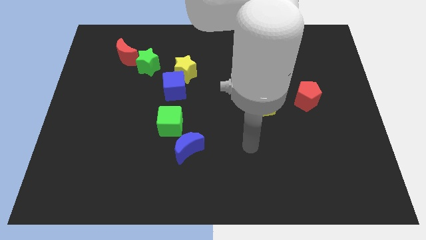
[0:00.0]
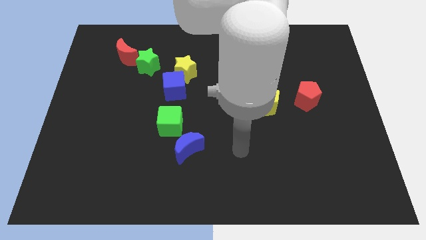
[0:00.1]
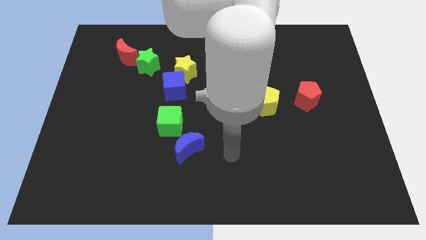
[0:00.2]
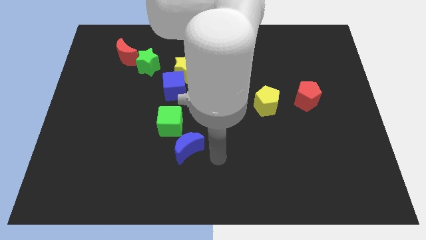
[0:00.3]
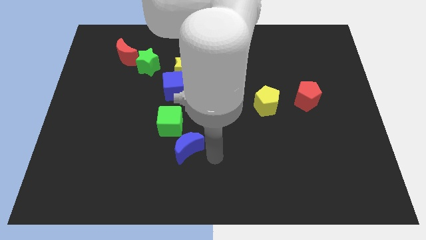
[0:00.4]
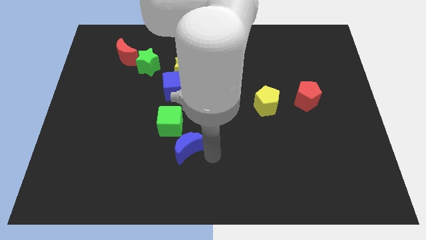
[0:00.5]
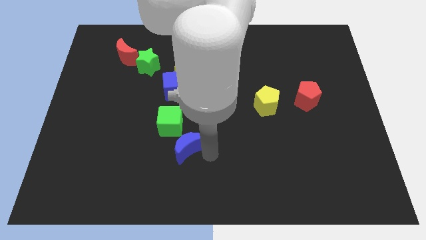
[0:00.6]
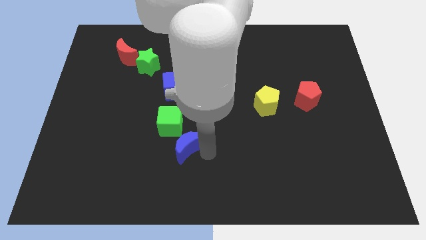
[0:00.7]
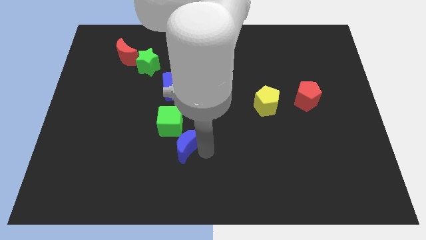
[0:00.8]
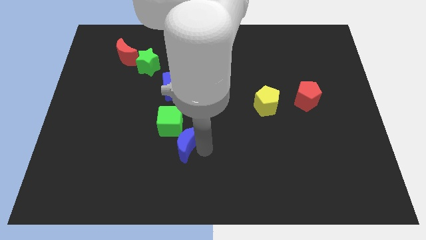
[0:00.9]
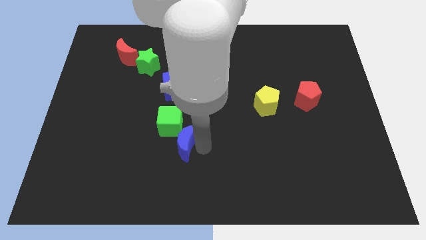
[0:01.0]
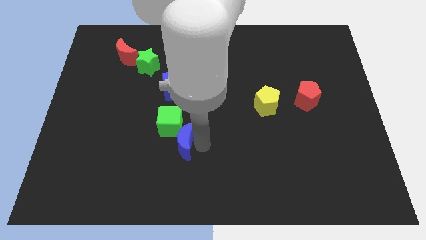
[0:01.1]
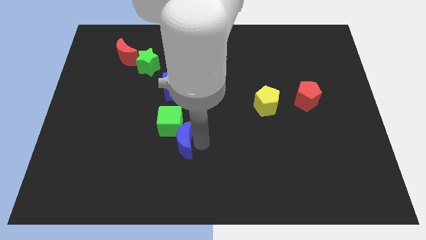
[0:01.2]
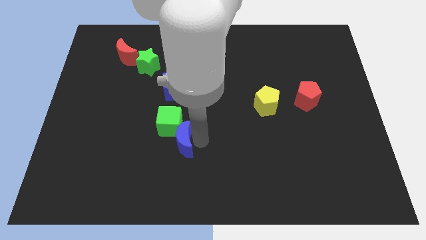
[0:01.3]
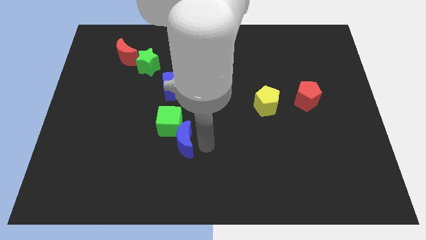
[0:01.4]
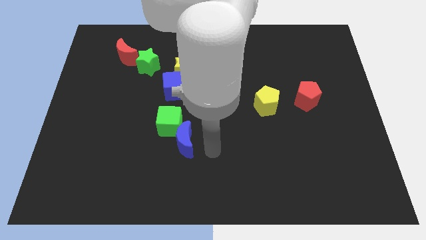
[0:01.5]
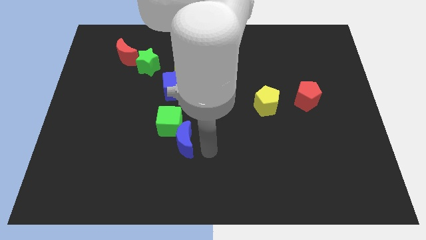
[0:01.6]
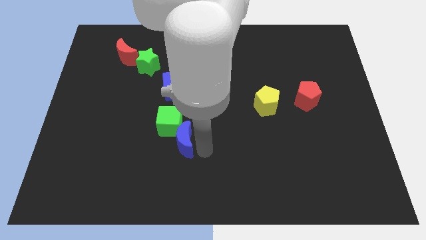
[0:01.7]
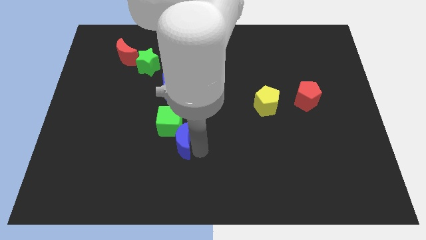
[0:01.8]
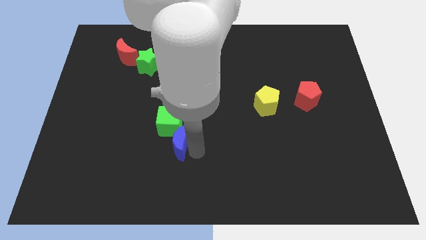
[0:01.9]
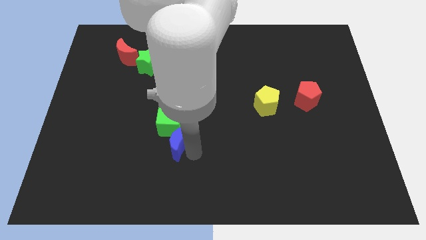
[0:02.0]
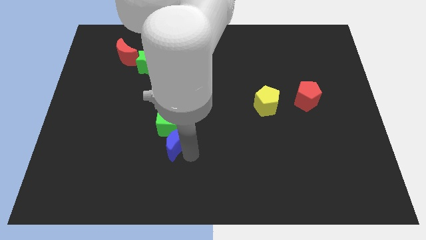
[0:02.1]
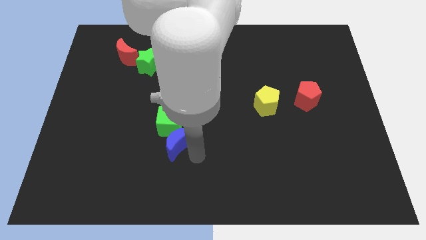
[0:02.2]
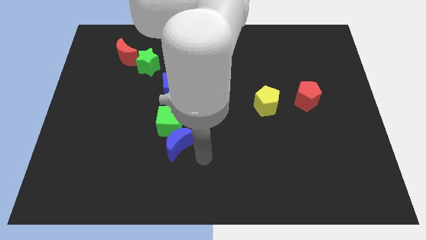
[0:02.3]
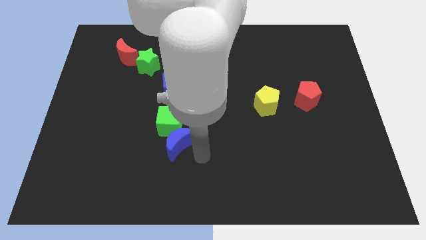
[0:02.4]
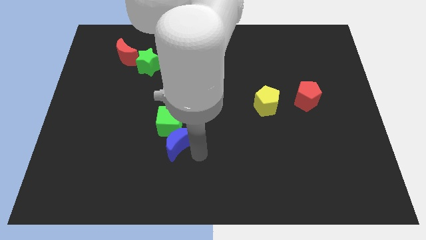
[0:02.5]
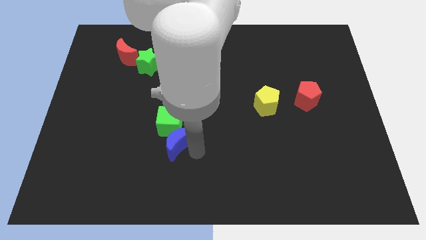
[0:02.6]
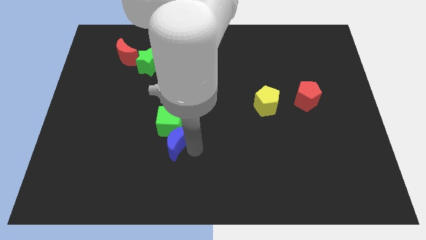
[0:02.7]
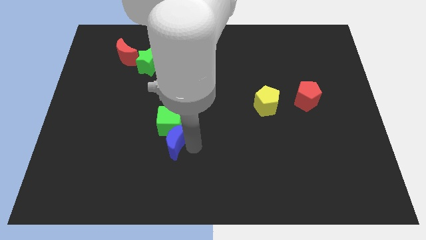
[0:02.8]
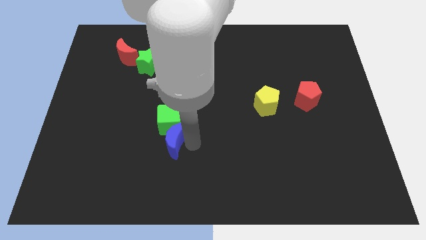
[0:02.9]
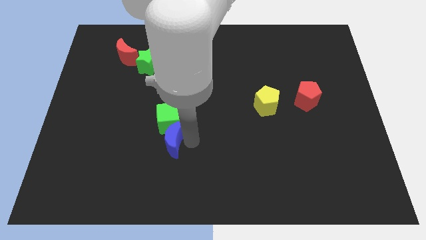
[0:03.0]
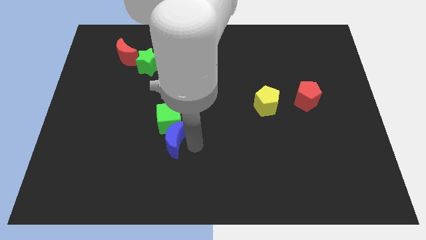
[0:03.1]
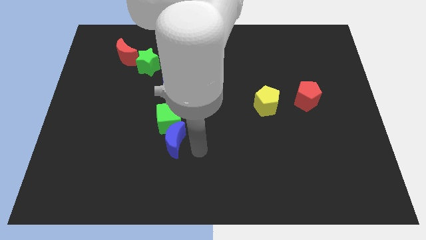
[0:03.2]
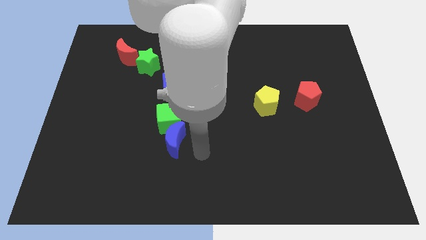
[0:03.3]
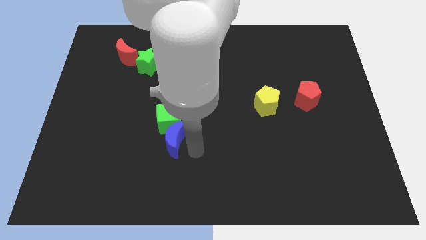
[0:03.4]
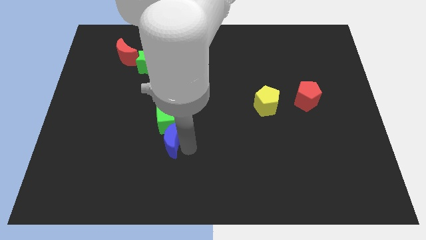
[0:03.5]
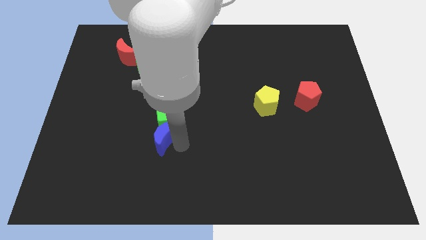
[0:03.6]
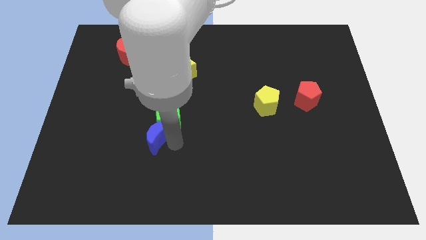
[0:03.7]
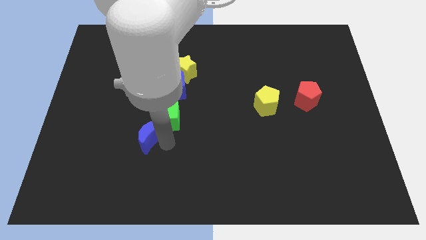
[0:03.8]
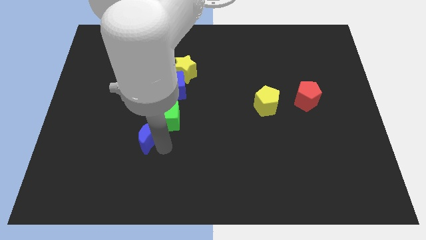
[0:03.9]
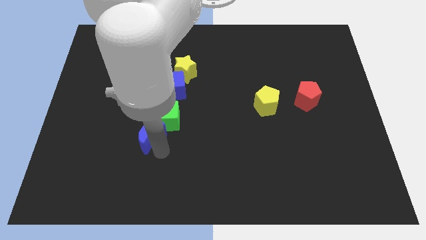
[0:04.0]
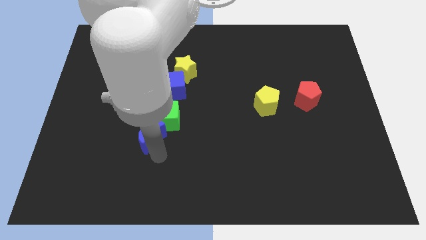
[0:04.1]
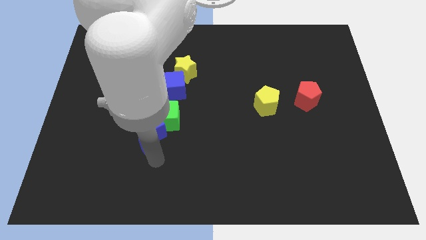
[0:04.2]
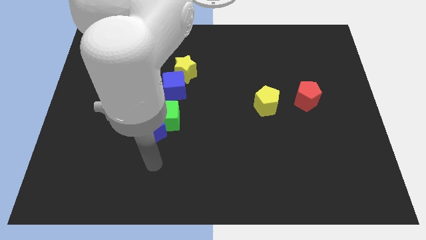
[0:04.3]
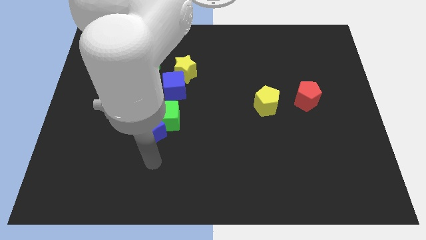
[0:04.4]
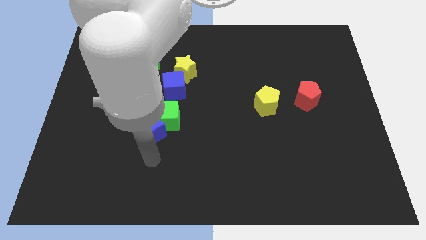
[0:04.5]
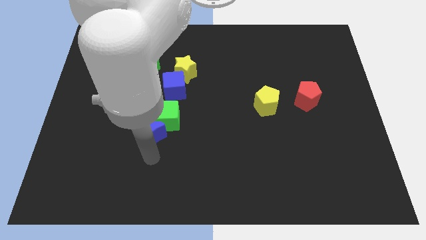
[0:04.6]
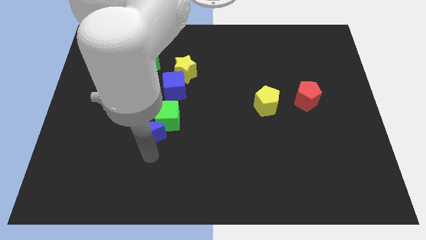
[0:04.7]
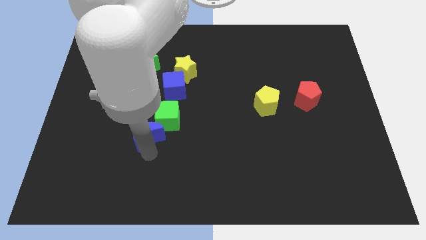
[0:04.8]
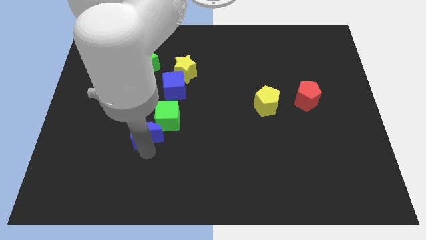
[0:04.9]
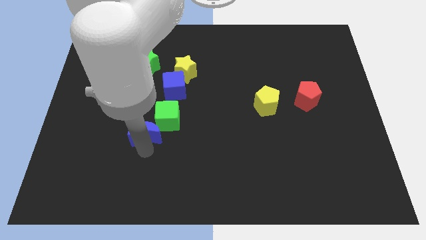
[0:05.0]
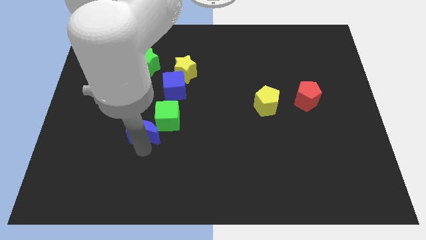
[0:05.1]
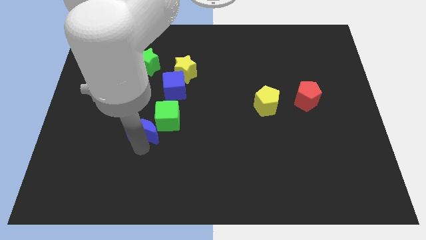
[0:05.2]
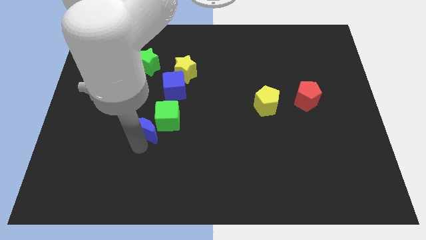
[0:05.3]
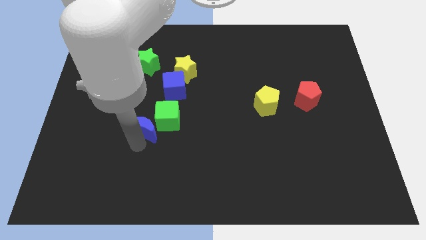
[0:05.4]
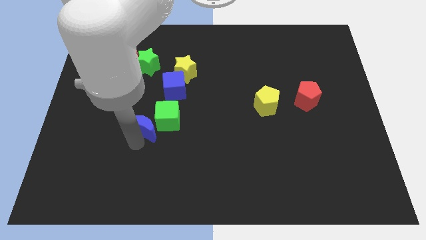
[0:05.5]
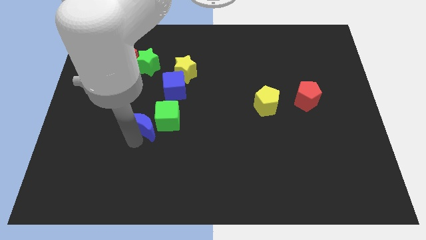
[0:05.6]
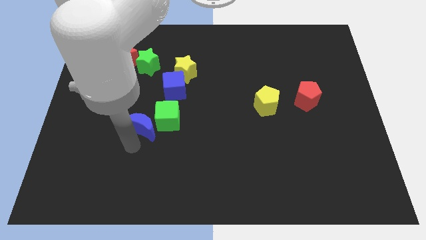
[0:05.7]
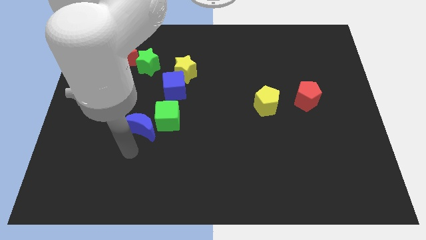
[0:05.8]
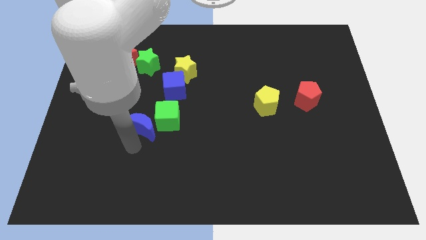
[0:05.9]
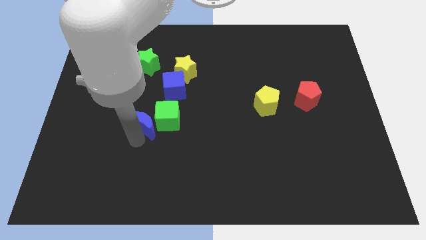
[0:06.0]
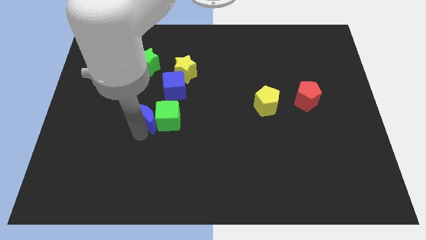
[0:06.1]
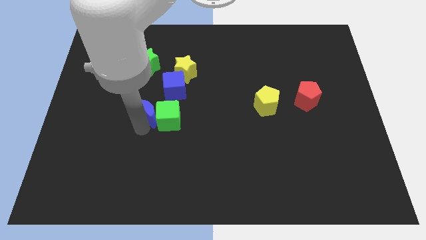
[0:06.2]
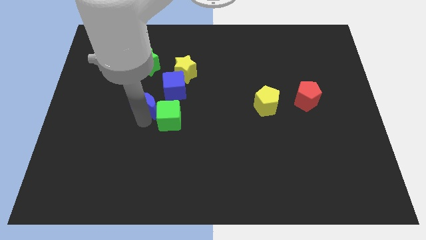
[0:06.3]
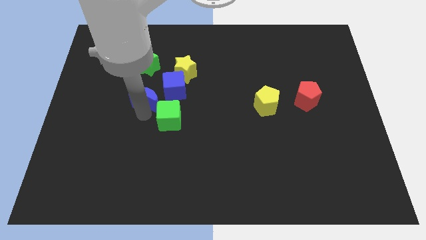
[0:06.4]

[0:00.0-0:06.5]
push the blue moon to the bottom left side of the yellow star
